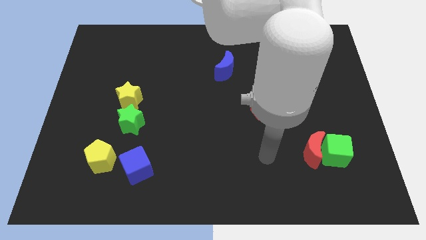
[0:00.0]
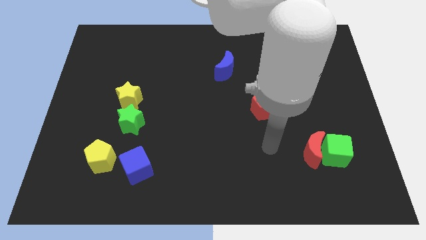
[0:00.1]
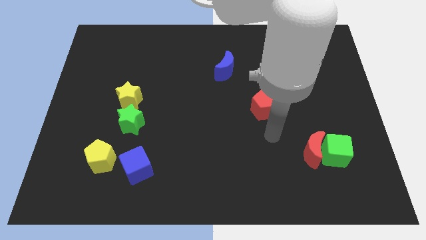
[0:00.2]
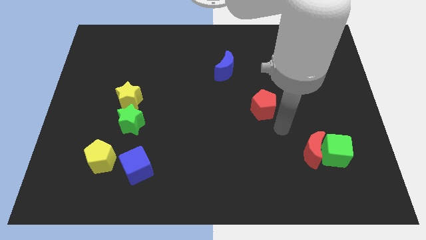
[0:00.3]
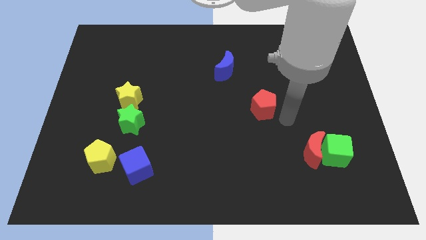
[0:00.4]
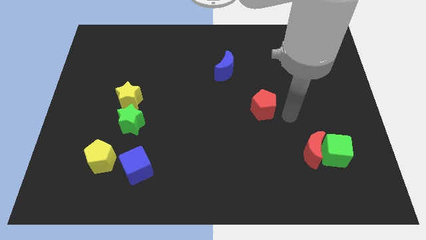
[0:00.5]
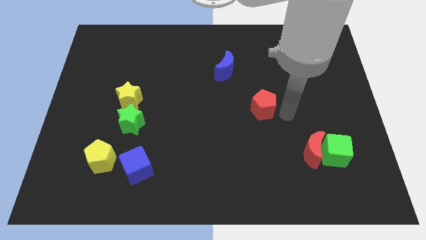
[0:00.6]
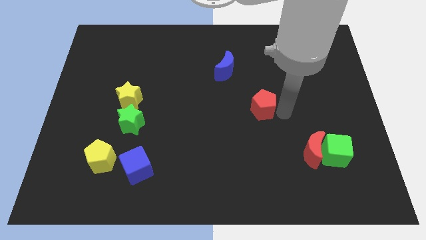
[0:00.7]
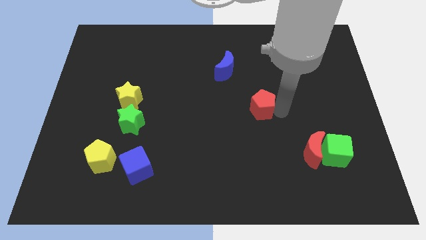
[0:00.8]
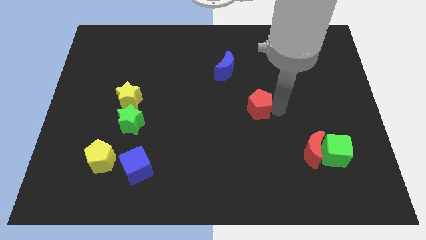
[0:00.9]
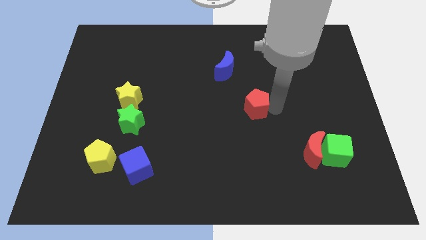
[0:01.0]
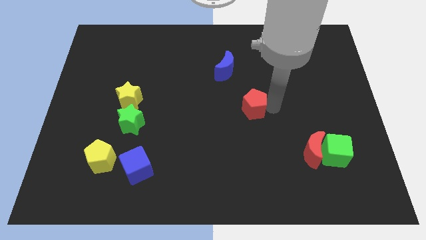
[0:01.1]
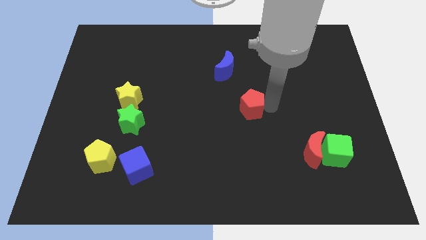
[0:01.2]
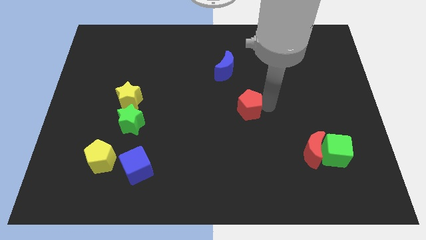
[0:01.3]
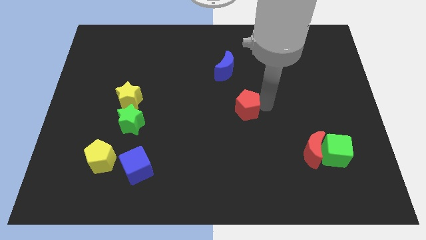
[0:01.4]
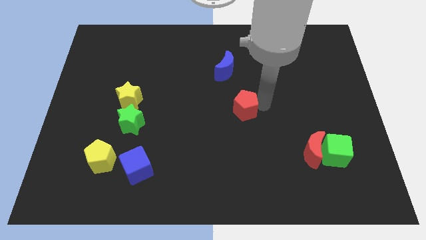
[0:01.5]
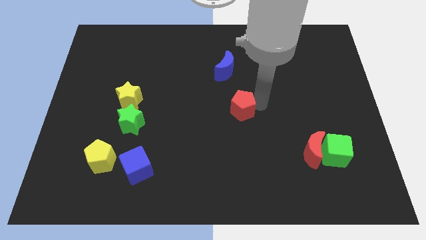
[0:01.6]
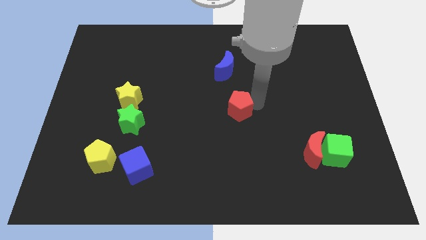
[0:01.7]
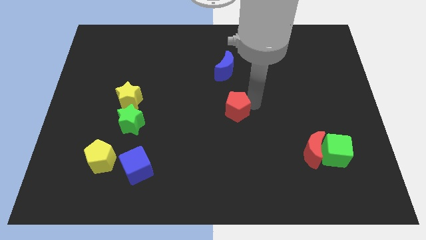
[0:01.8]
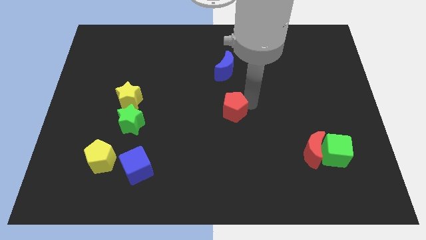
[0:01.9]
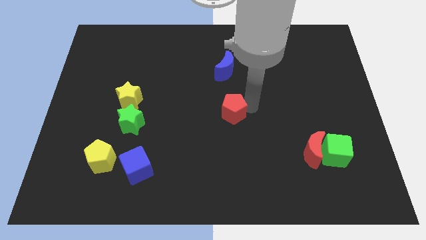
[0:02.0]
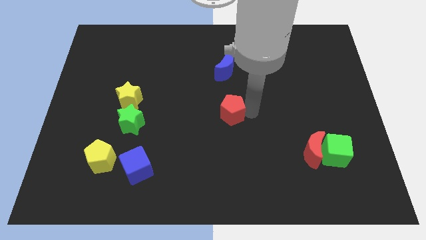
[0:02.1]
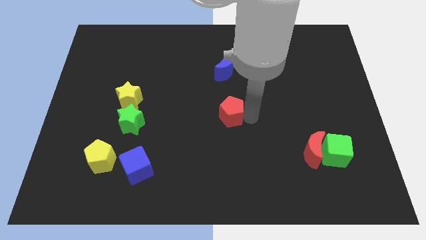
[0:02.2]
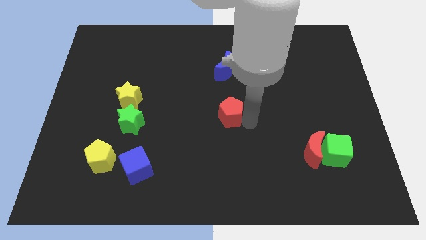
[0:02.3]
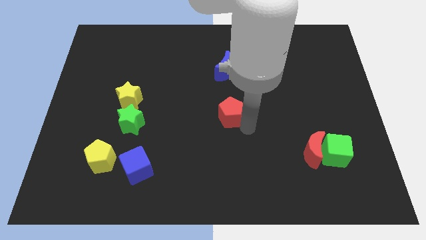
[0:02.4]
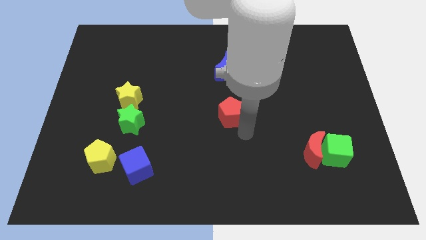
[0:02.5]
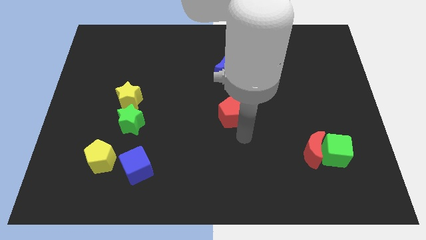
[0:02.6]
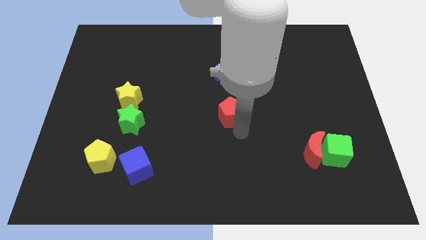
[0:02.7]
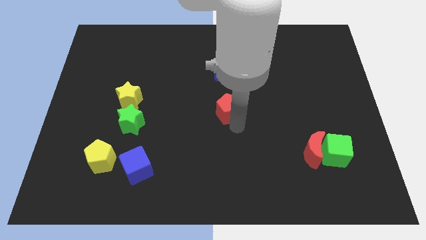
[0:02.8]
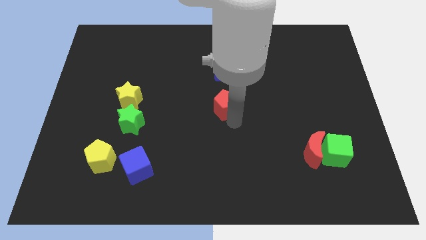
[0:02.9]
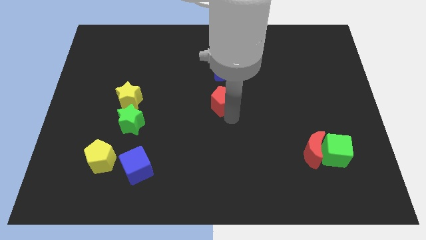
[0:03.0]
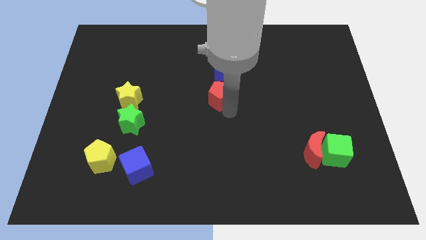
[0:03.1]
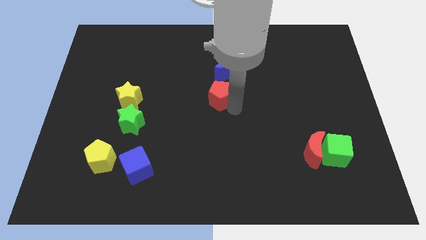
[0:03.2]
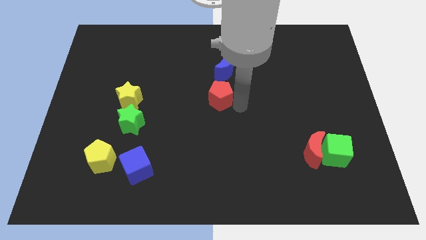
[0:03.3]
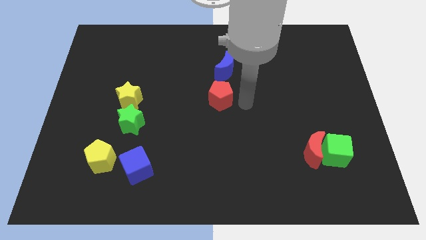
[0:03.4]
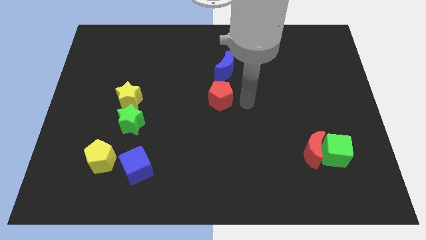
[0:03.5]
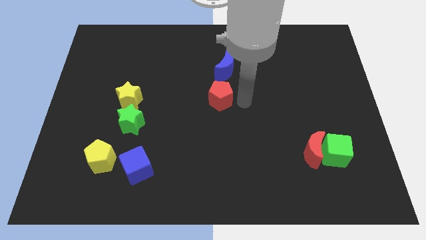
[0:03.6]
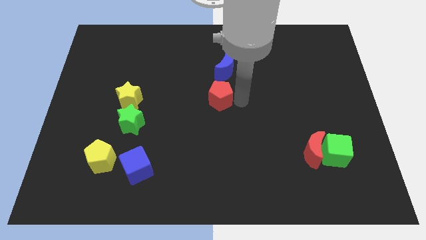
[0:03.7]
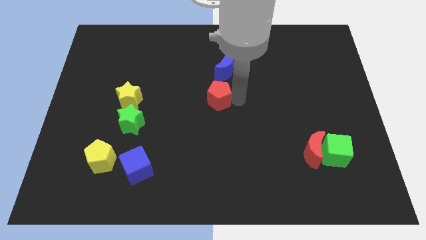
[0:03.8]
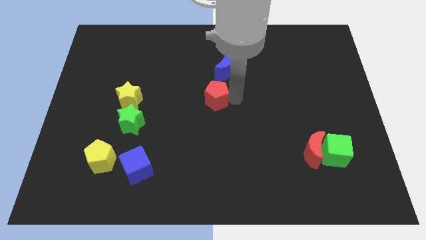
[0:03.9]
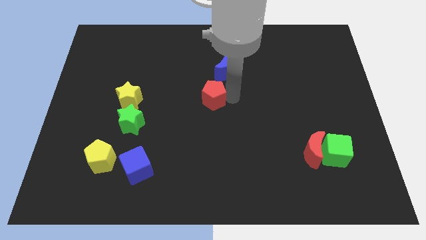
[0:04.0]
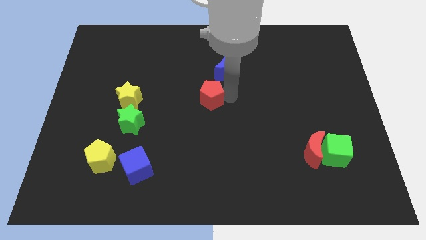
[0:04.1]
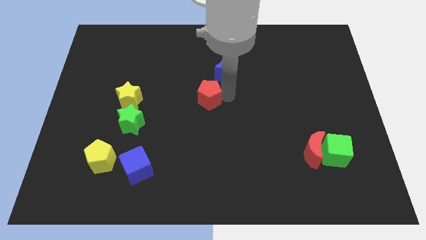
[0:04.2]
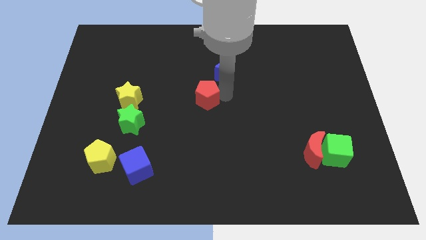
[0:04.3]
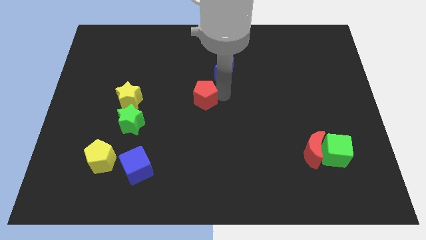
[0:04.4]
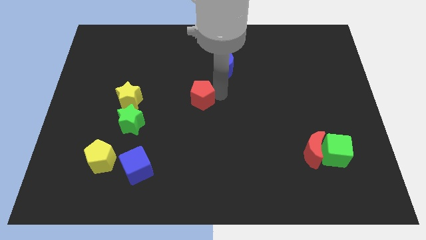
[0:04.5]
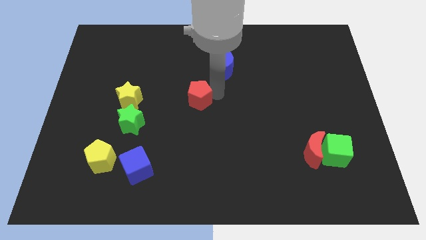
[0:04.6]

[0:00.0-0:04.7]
push the red pentagon to the right of the yellow star

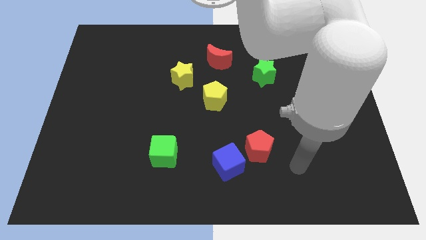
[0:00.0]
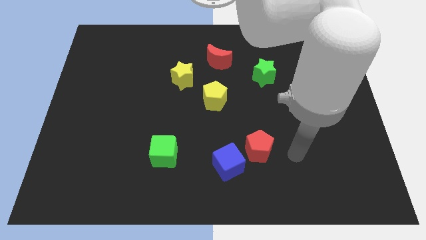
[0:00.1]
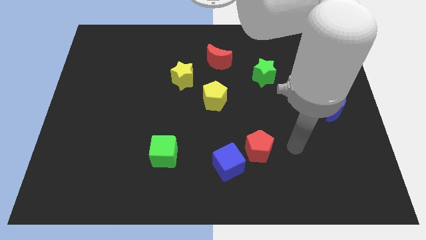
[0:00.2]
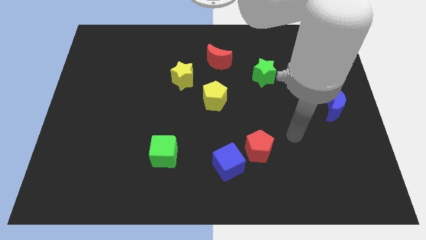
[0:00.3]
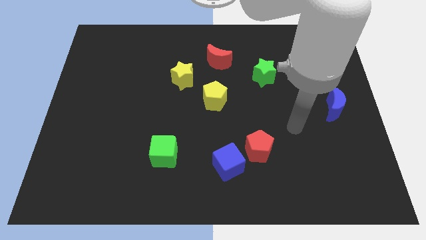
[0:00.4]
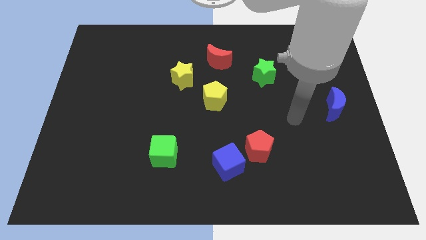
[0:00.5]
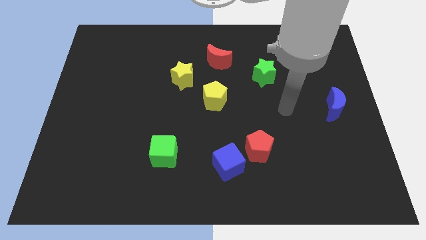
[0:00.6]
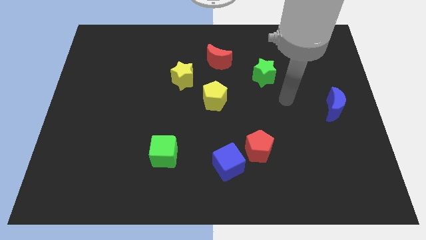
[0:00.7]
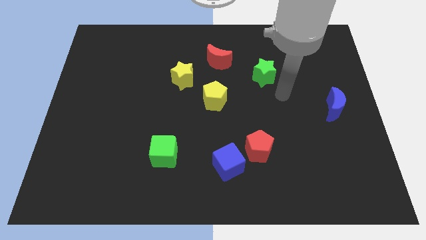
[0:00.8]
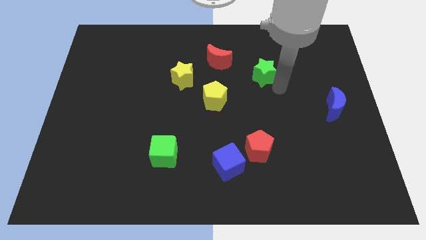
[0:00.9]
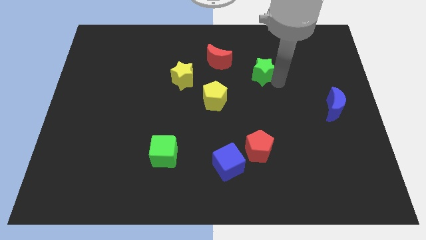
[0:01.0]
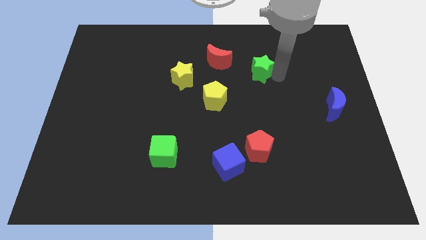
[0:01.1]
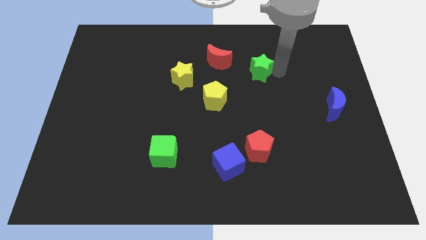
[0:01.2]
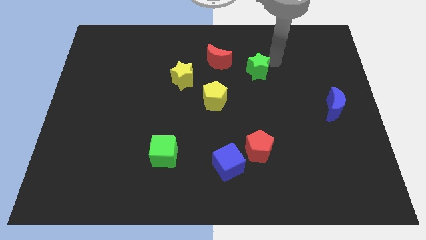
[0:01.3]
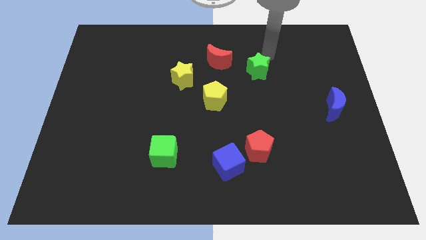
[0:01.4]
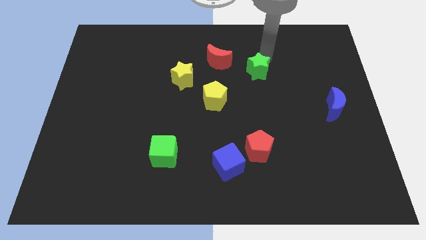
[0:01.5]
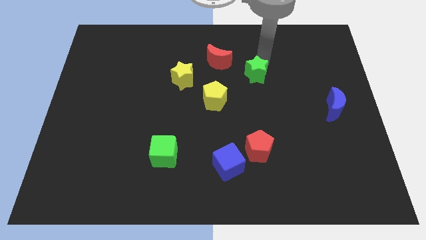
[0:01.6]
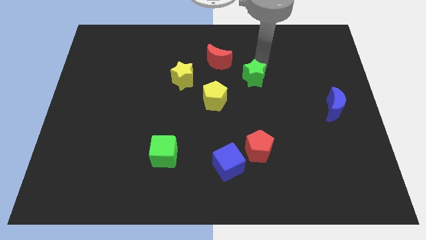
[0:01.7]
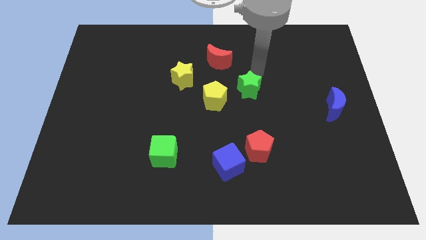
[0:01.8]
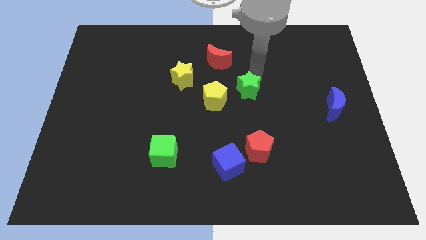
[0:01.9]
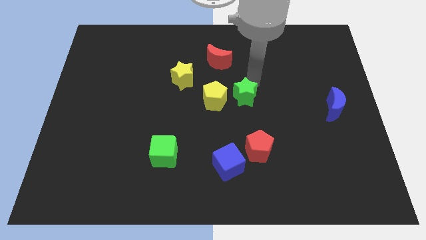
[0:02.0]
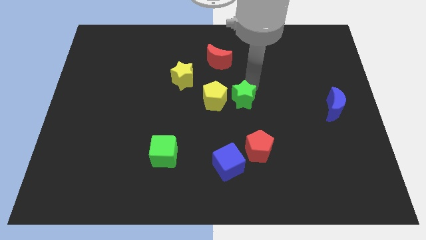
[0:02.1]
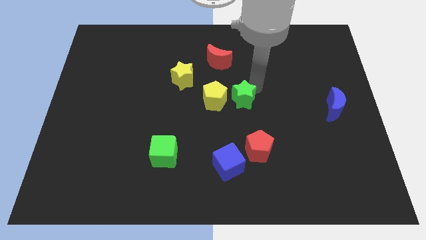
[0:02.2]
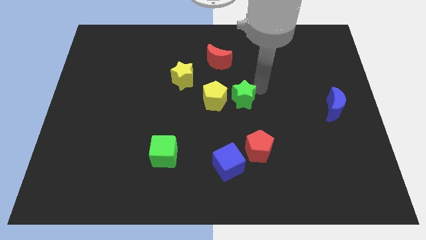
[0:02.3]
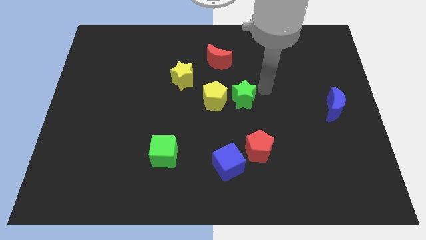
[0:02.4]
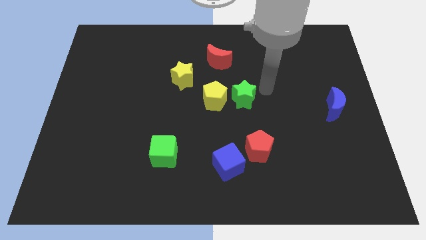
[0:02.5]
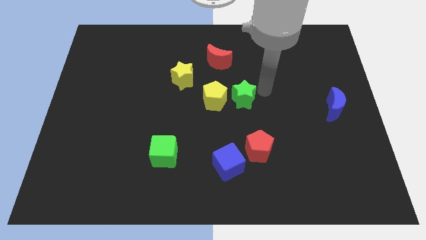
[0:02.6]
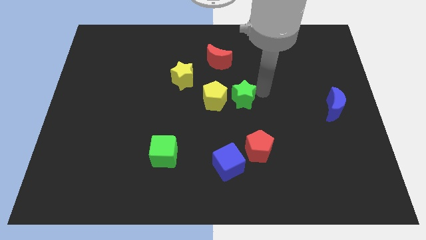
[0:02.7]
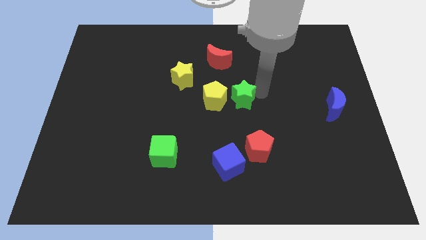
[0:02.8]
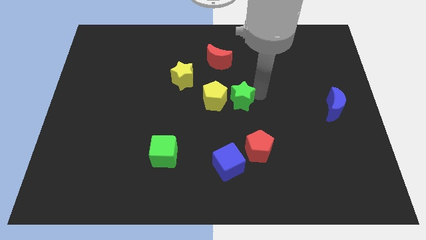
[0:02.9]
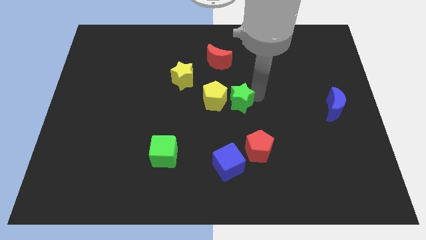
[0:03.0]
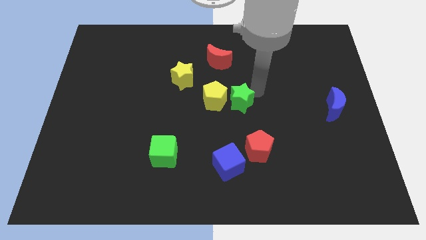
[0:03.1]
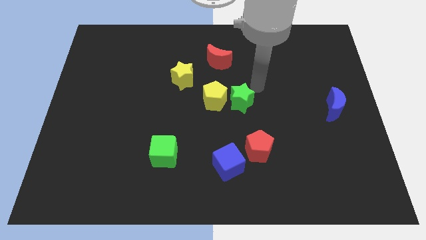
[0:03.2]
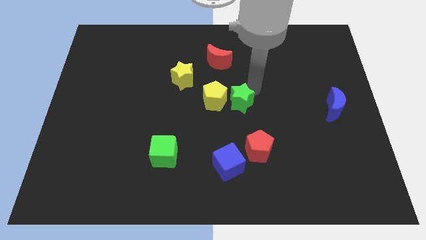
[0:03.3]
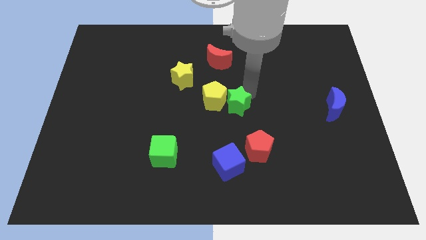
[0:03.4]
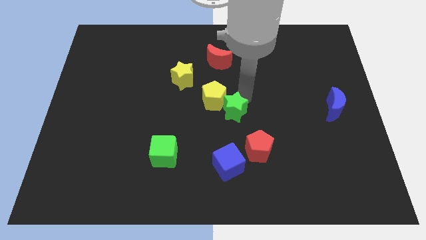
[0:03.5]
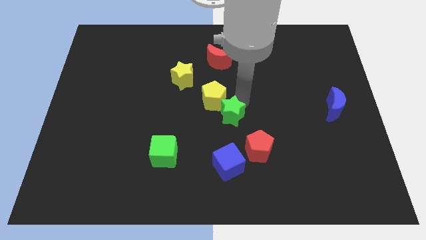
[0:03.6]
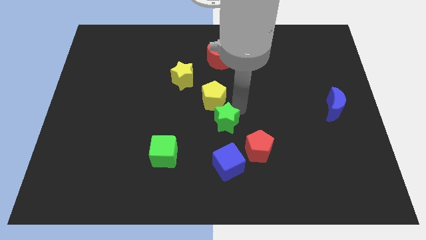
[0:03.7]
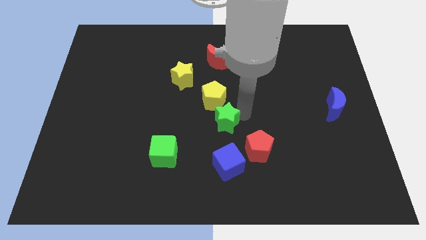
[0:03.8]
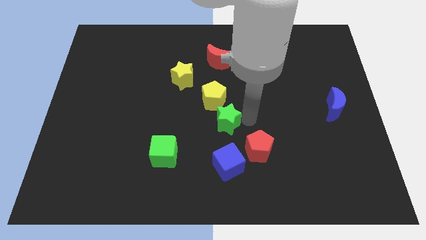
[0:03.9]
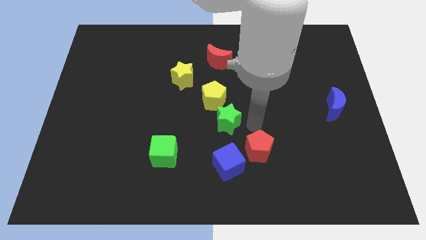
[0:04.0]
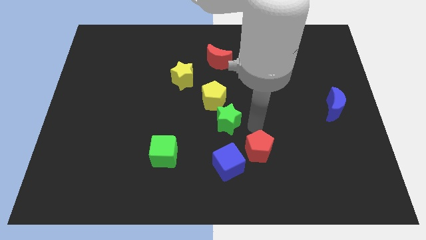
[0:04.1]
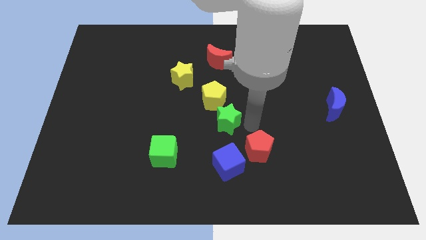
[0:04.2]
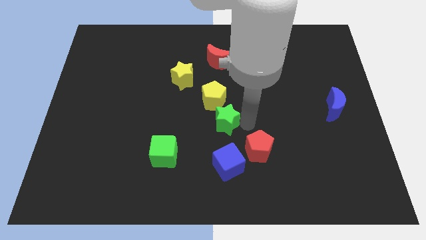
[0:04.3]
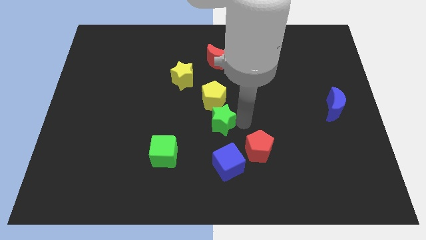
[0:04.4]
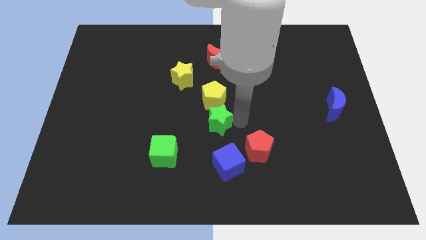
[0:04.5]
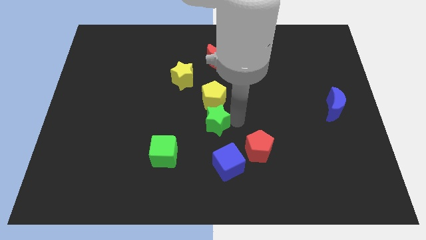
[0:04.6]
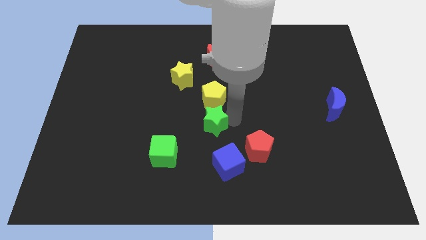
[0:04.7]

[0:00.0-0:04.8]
move the green star to the bottom left of the yellow pentagon
